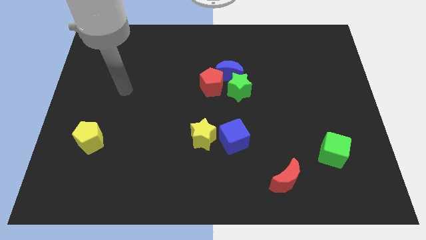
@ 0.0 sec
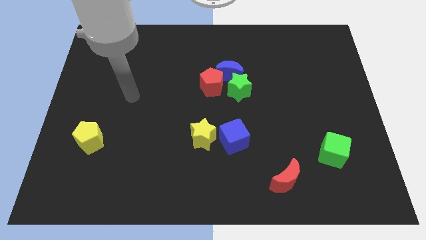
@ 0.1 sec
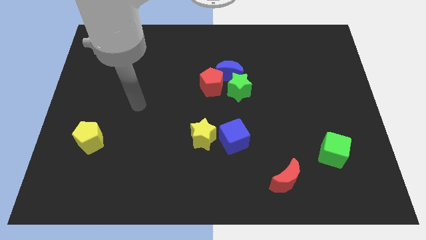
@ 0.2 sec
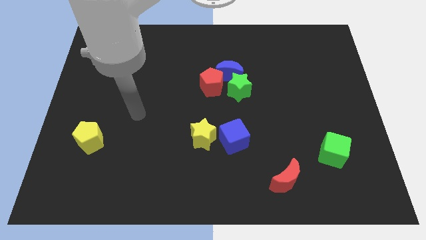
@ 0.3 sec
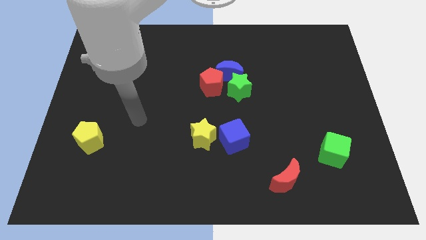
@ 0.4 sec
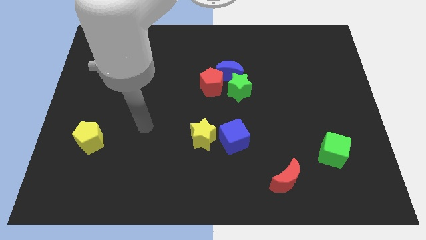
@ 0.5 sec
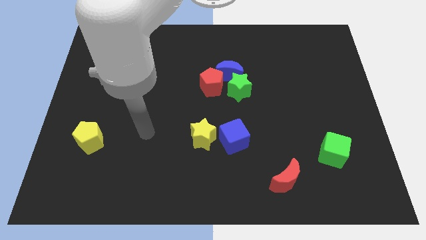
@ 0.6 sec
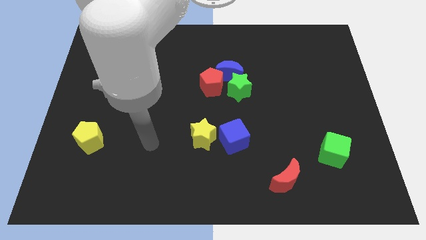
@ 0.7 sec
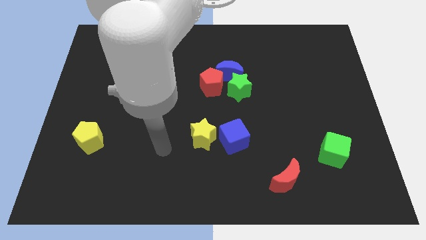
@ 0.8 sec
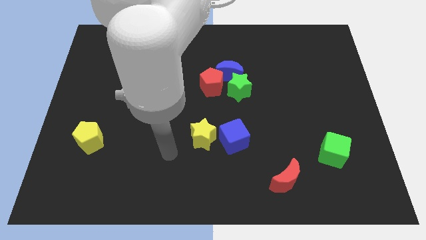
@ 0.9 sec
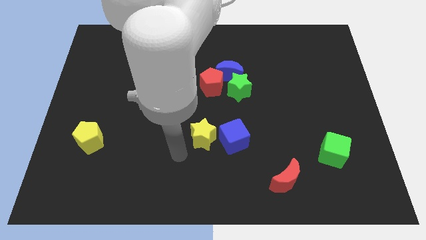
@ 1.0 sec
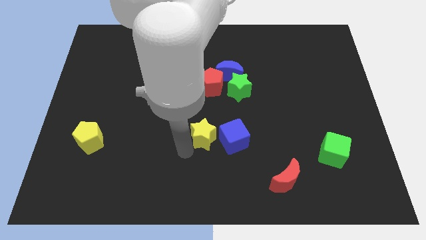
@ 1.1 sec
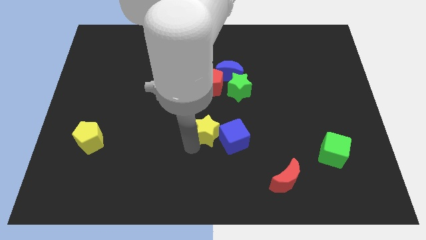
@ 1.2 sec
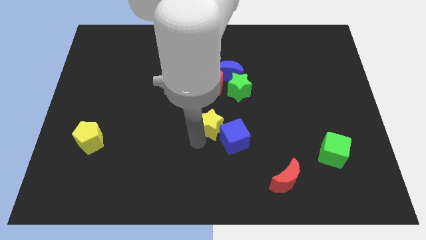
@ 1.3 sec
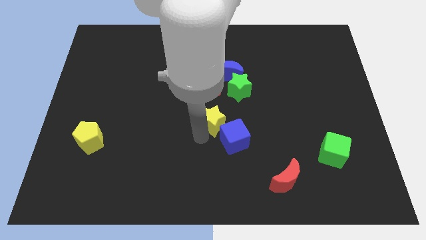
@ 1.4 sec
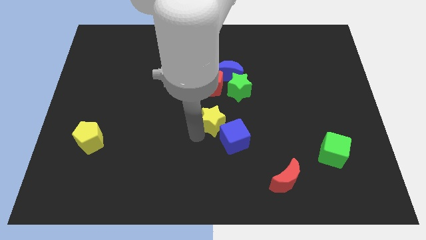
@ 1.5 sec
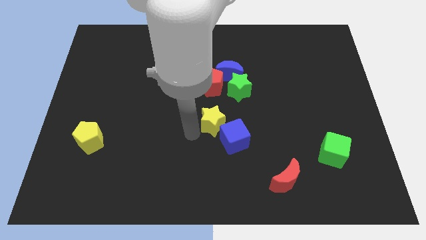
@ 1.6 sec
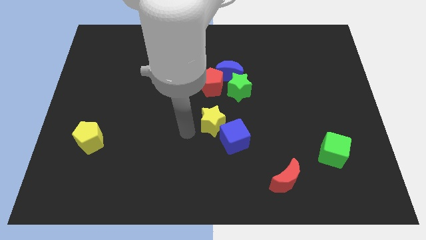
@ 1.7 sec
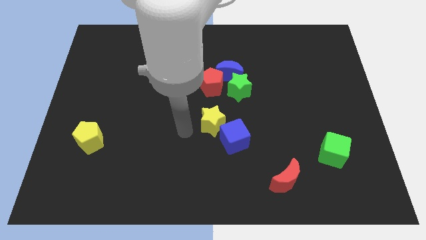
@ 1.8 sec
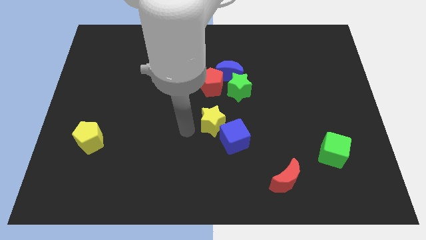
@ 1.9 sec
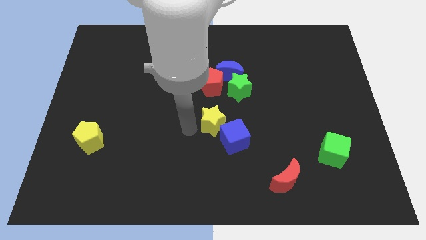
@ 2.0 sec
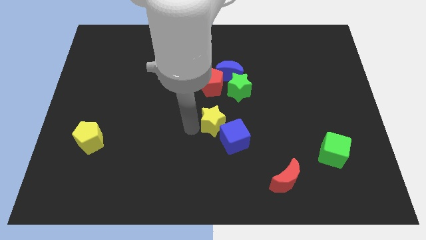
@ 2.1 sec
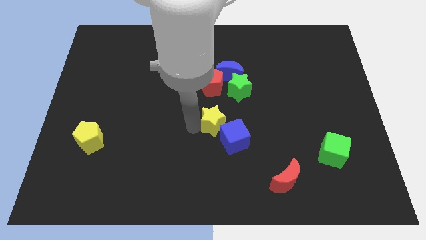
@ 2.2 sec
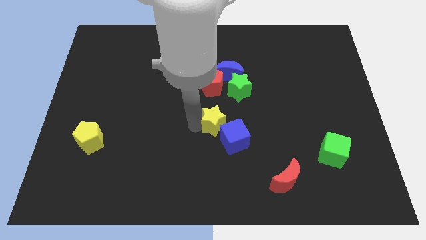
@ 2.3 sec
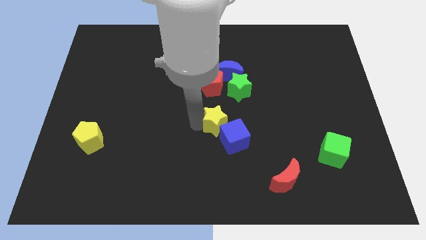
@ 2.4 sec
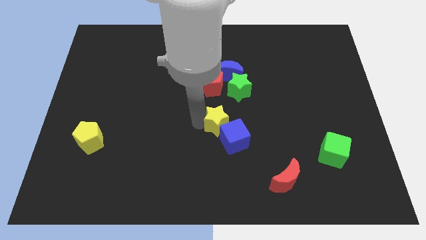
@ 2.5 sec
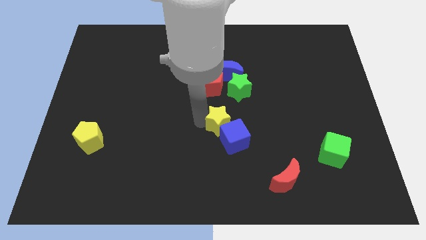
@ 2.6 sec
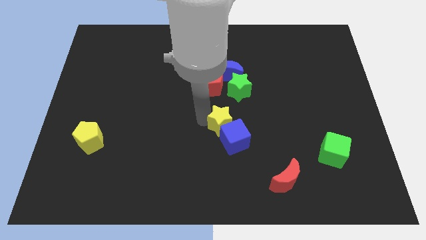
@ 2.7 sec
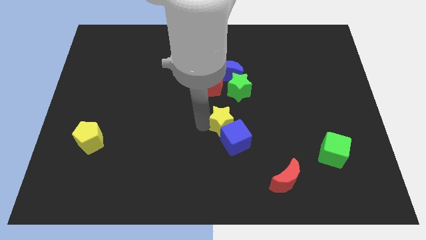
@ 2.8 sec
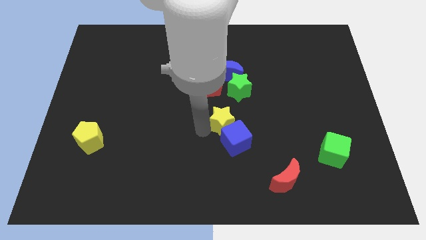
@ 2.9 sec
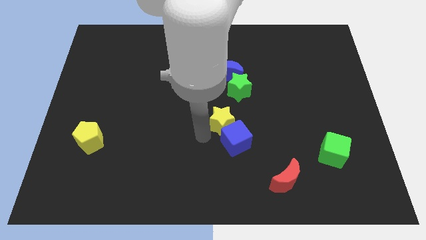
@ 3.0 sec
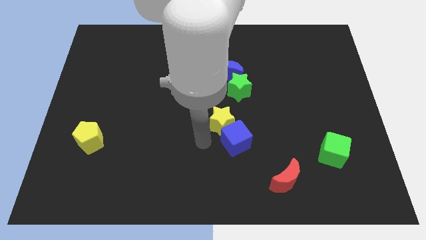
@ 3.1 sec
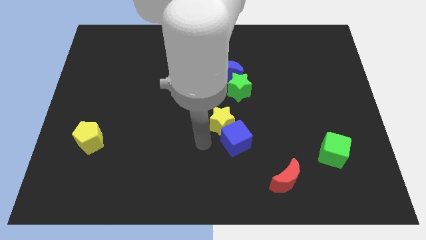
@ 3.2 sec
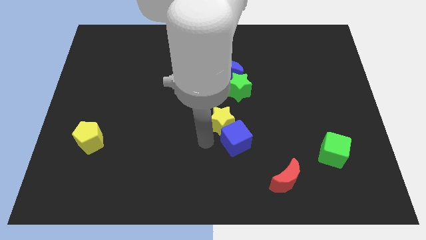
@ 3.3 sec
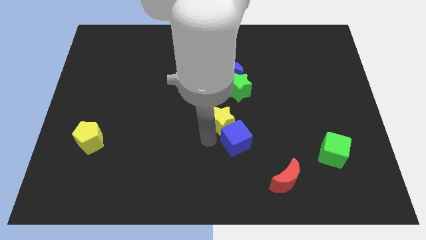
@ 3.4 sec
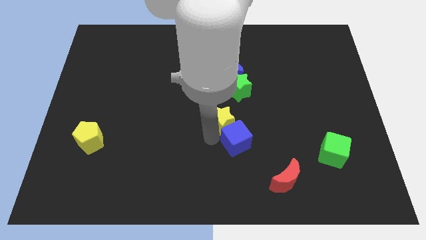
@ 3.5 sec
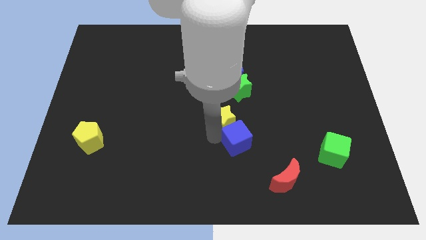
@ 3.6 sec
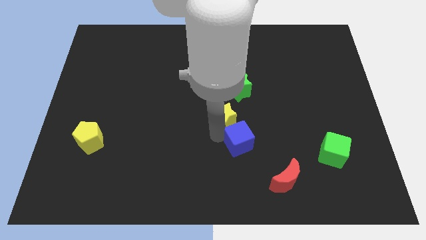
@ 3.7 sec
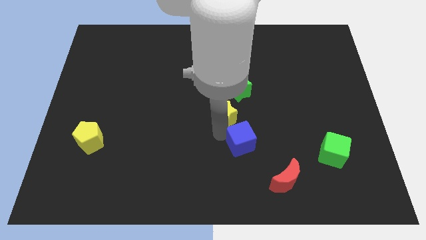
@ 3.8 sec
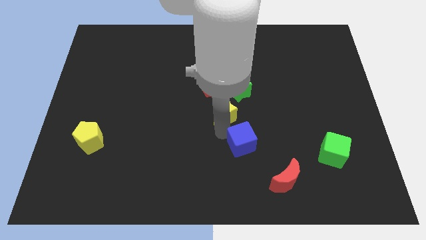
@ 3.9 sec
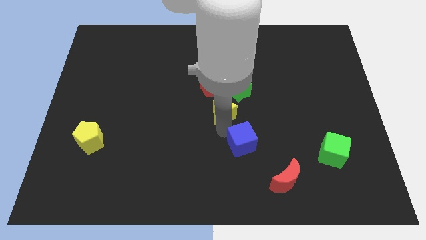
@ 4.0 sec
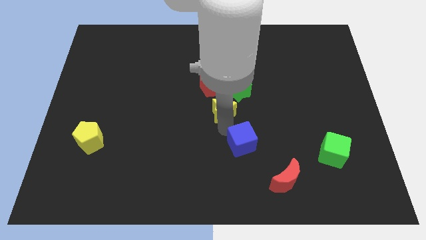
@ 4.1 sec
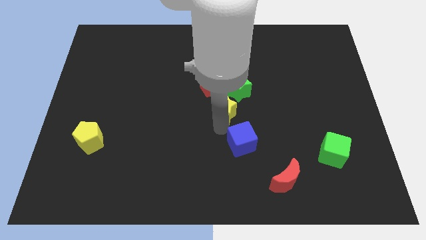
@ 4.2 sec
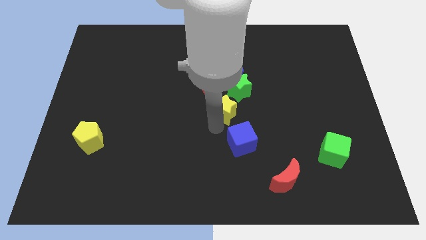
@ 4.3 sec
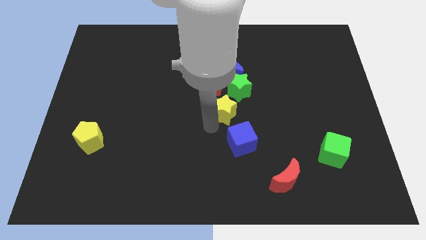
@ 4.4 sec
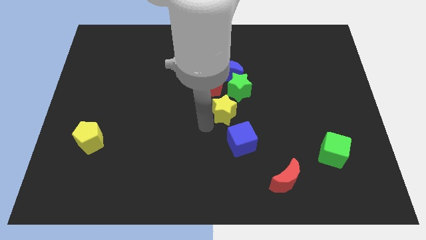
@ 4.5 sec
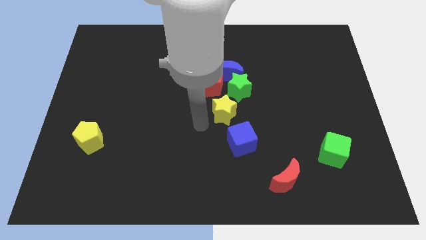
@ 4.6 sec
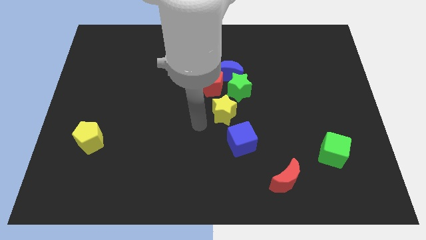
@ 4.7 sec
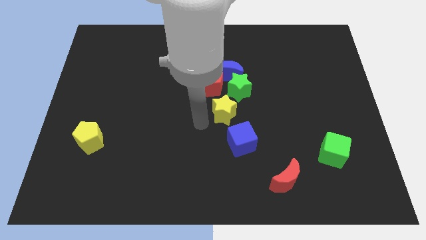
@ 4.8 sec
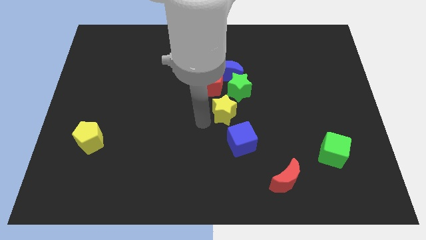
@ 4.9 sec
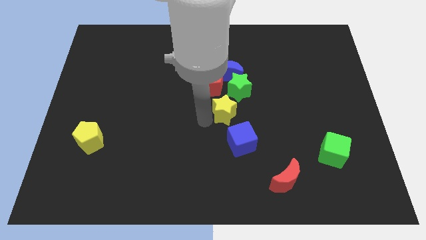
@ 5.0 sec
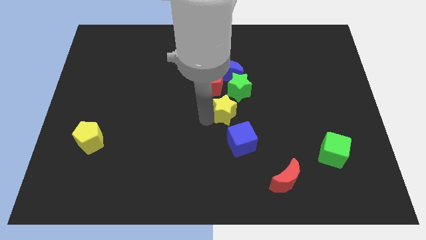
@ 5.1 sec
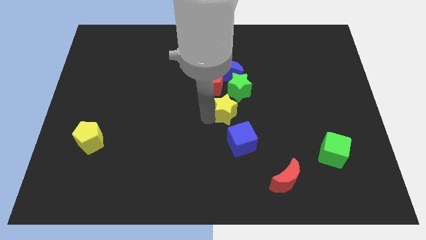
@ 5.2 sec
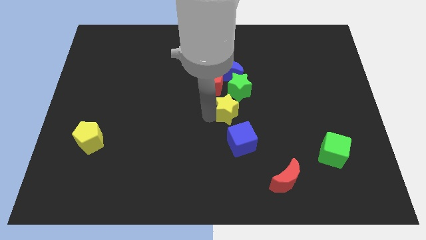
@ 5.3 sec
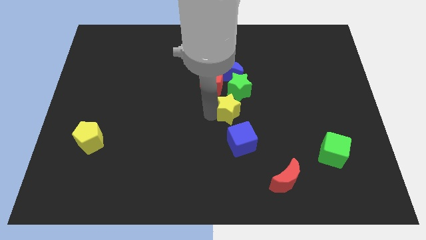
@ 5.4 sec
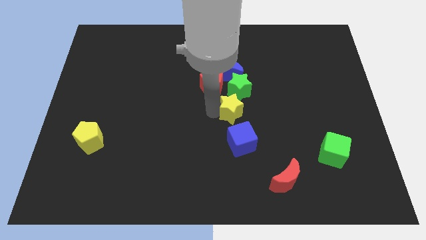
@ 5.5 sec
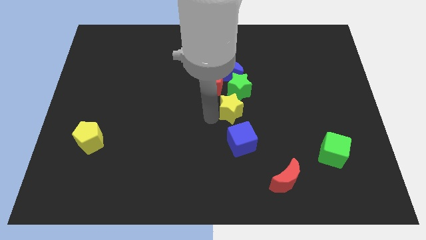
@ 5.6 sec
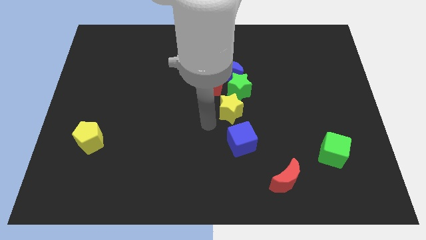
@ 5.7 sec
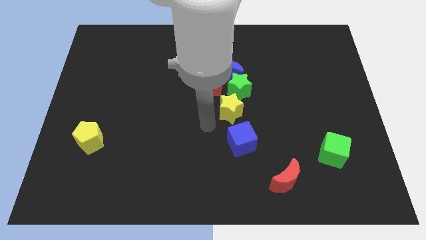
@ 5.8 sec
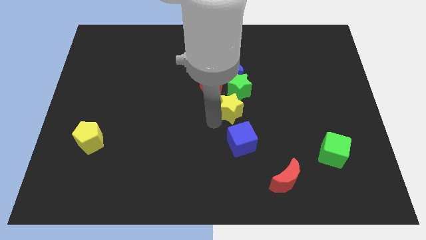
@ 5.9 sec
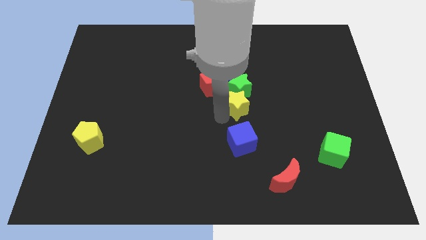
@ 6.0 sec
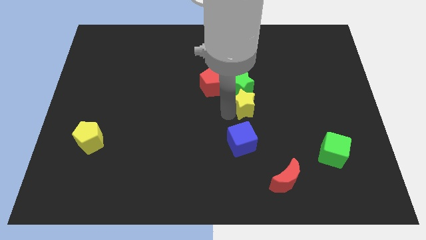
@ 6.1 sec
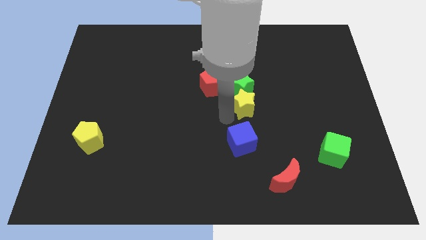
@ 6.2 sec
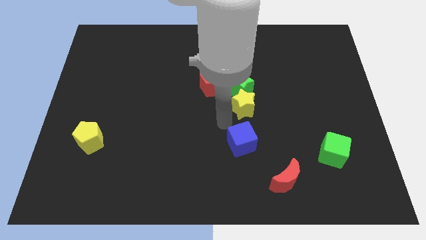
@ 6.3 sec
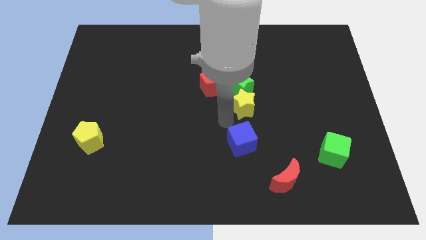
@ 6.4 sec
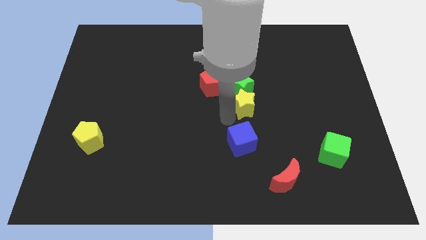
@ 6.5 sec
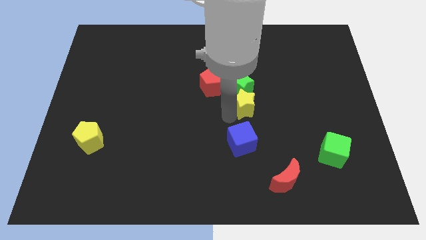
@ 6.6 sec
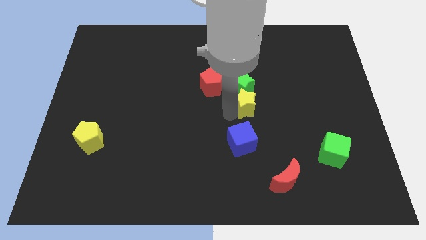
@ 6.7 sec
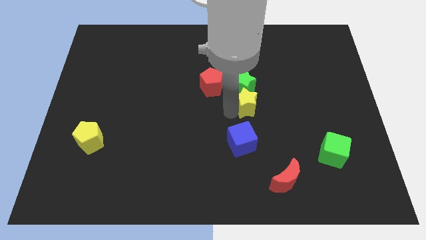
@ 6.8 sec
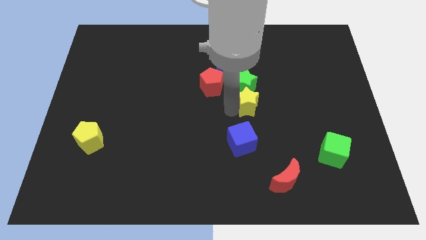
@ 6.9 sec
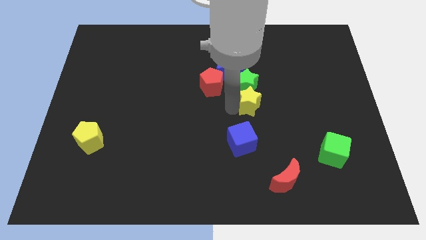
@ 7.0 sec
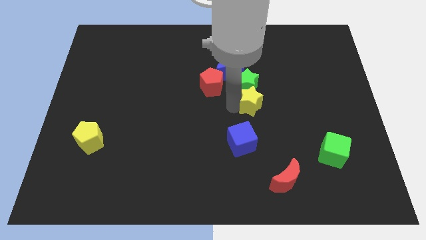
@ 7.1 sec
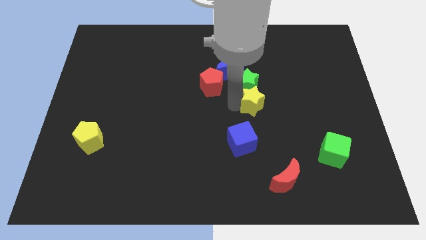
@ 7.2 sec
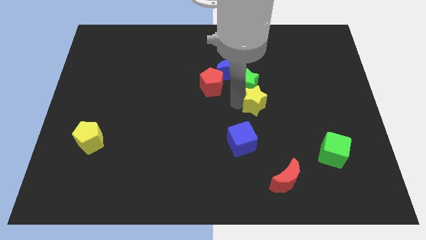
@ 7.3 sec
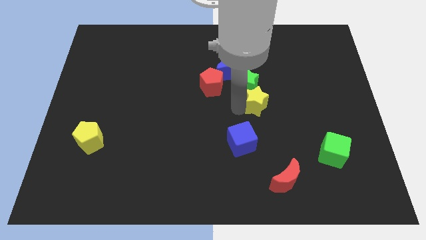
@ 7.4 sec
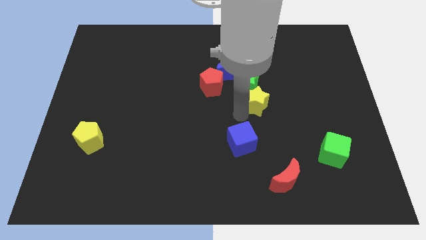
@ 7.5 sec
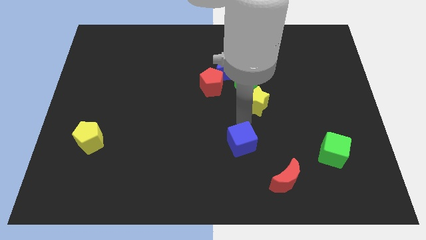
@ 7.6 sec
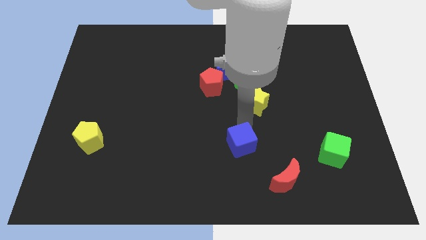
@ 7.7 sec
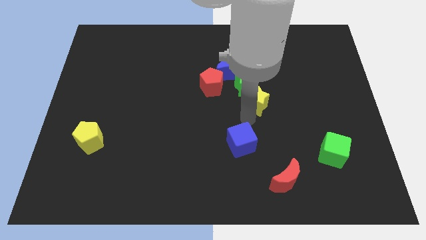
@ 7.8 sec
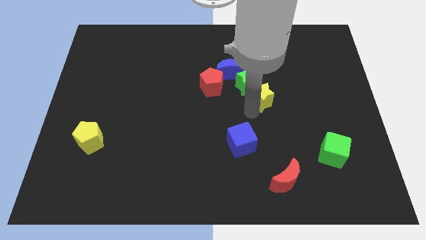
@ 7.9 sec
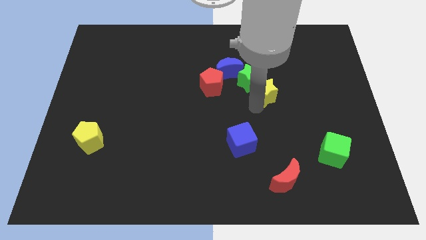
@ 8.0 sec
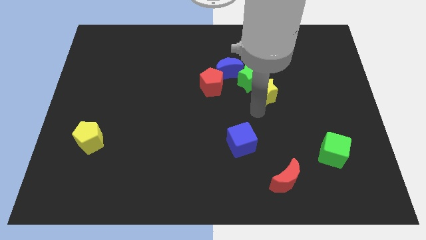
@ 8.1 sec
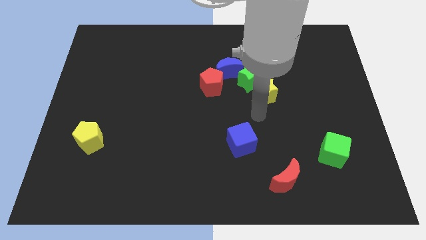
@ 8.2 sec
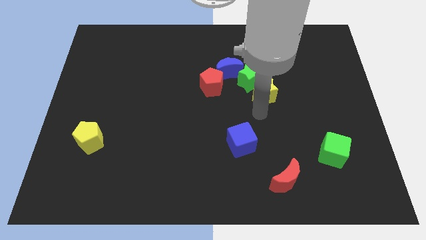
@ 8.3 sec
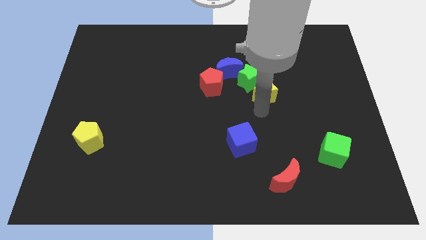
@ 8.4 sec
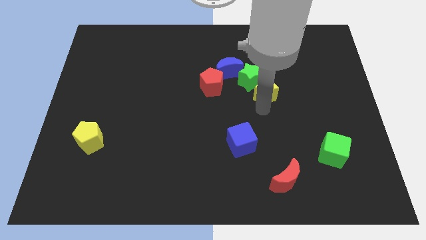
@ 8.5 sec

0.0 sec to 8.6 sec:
slide the yellow star upwards and right diagonally
